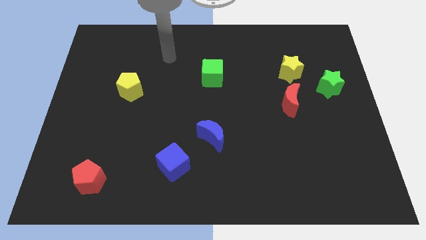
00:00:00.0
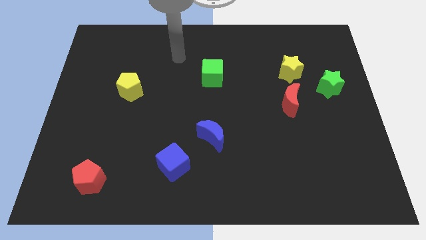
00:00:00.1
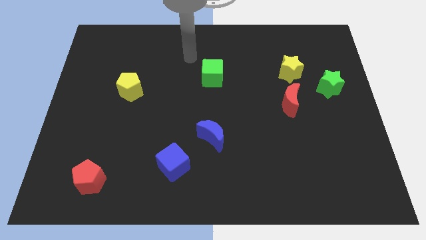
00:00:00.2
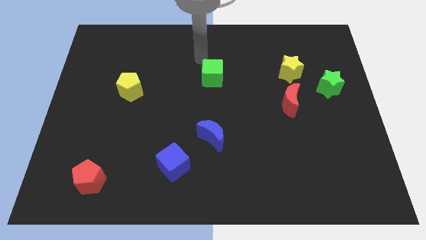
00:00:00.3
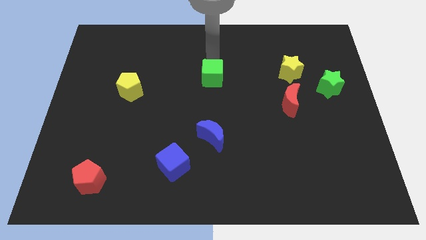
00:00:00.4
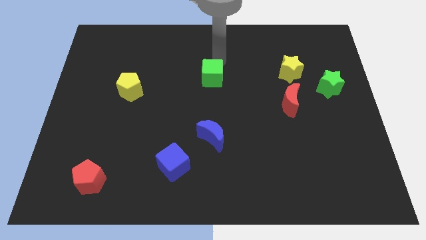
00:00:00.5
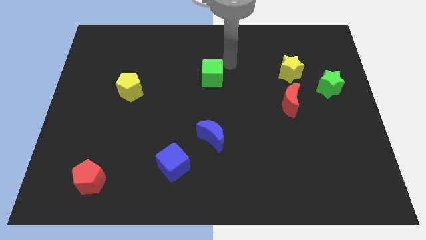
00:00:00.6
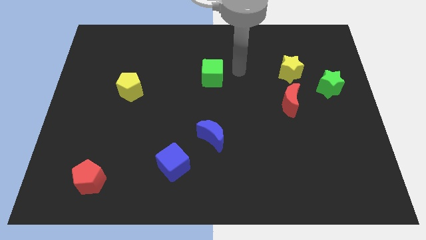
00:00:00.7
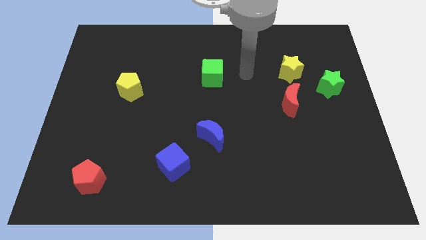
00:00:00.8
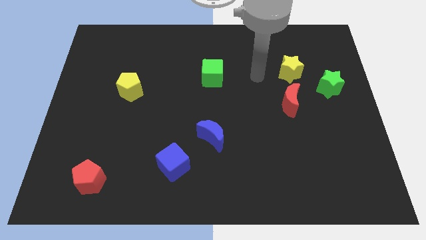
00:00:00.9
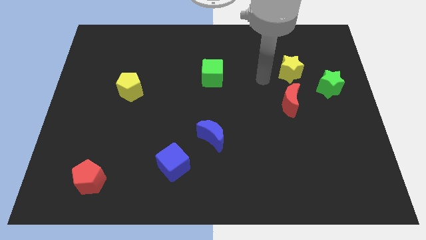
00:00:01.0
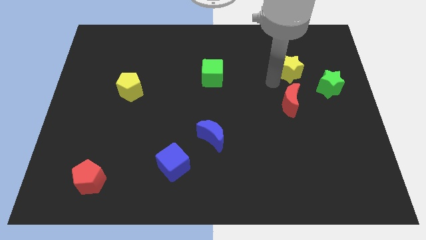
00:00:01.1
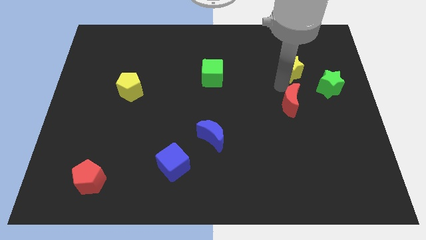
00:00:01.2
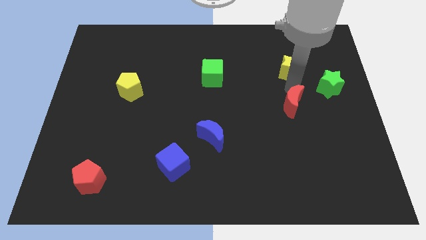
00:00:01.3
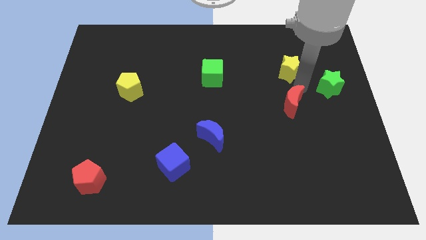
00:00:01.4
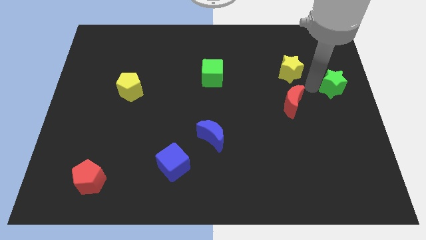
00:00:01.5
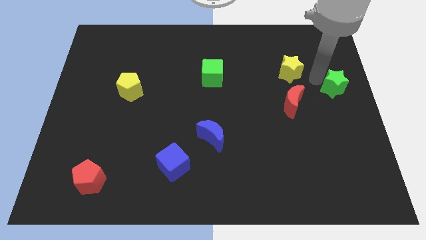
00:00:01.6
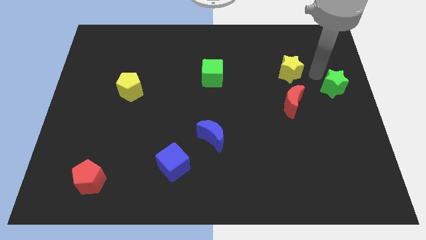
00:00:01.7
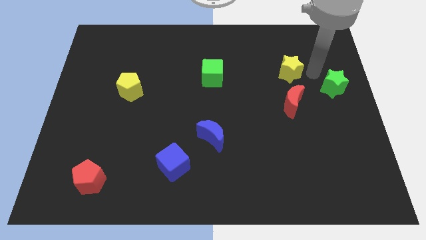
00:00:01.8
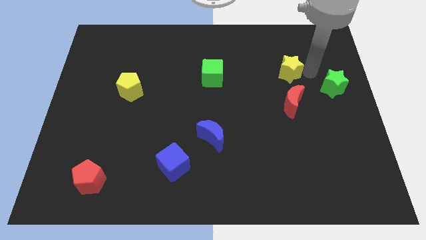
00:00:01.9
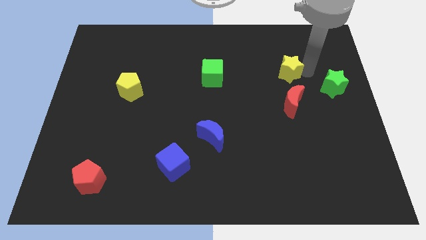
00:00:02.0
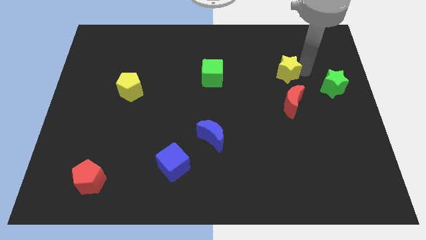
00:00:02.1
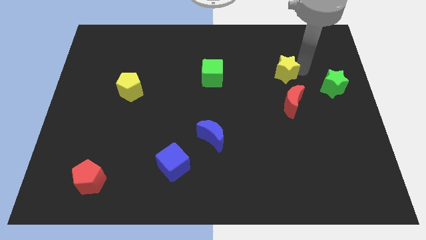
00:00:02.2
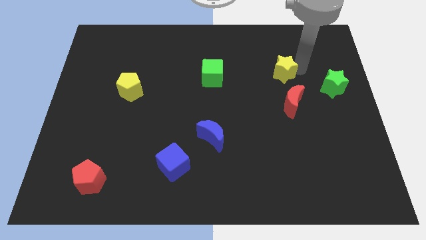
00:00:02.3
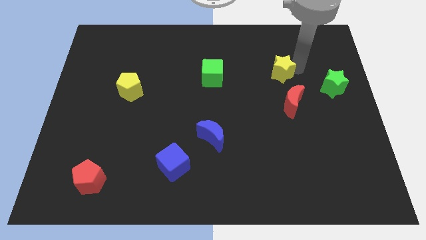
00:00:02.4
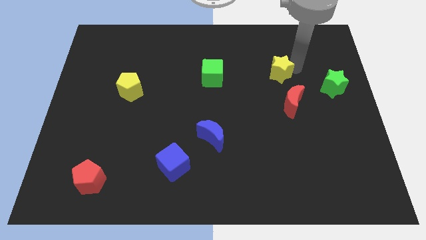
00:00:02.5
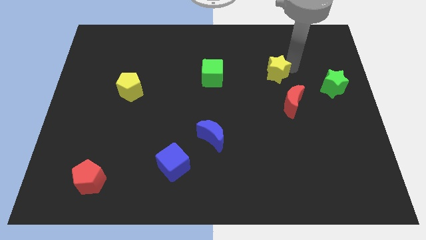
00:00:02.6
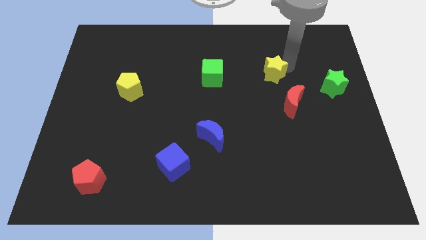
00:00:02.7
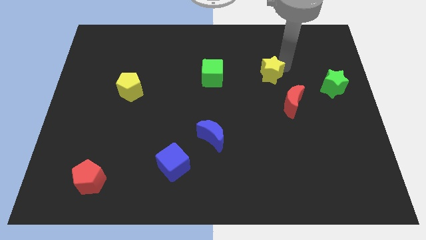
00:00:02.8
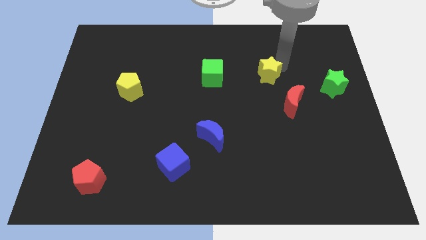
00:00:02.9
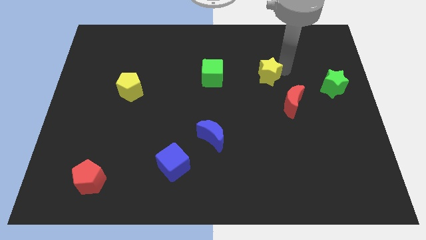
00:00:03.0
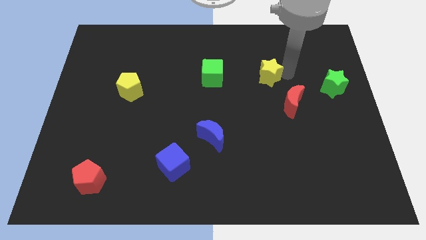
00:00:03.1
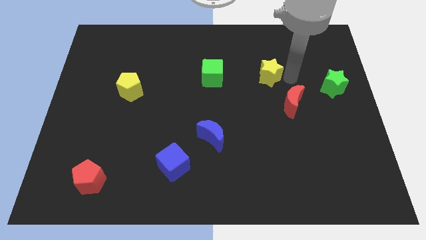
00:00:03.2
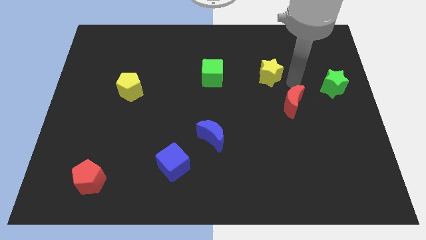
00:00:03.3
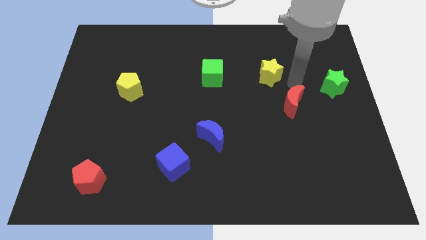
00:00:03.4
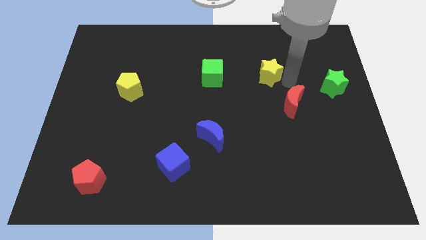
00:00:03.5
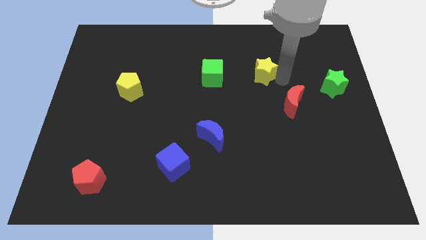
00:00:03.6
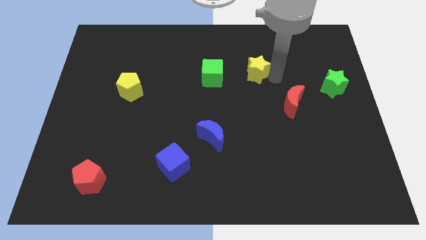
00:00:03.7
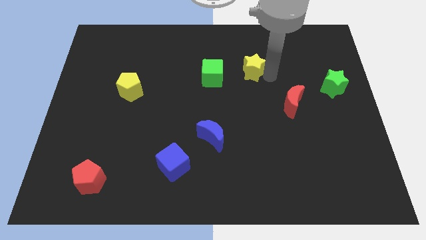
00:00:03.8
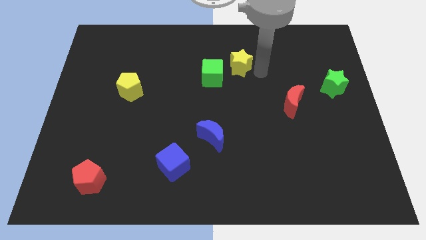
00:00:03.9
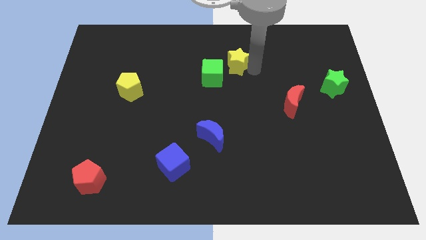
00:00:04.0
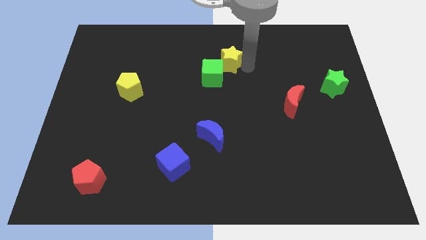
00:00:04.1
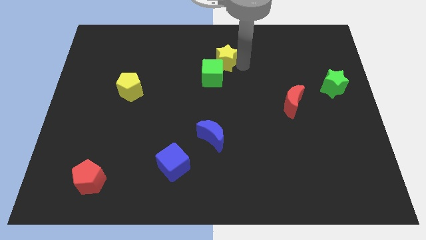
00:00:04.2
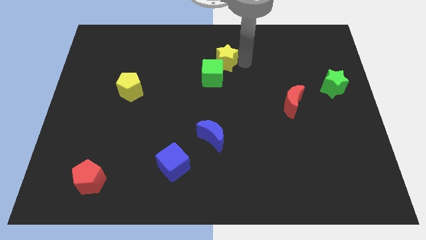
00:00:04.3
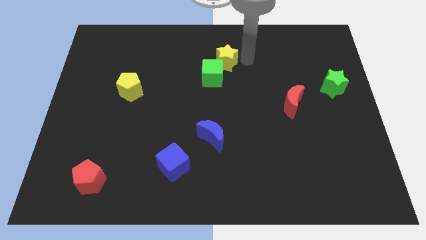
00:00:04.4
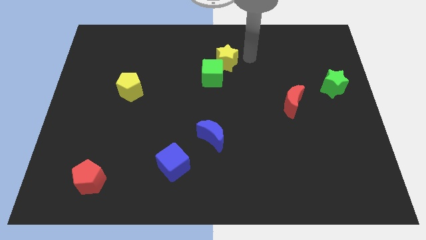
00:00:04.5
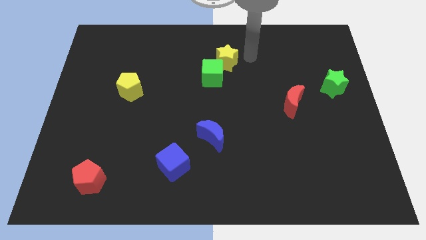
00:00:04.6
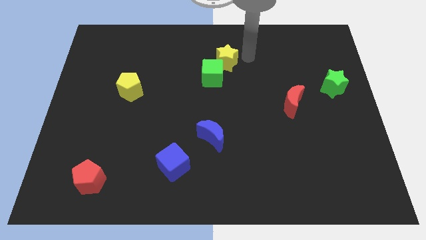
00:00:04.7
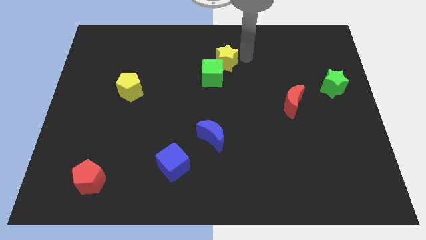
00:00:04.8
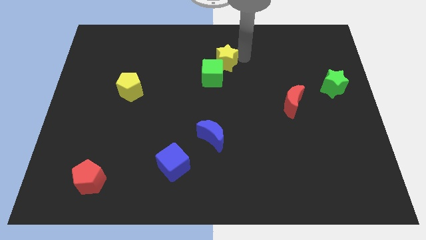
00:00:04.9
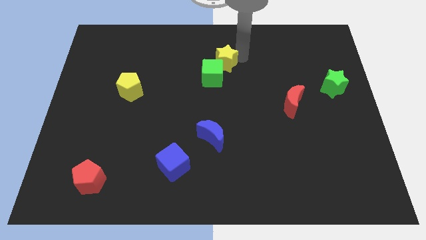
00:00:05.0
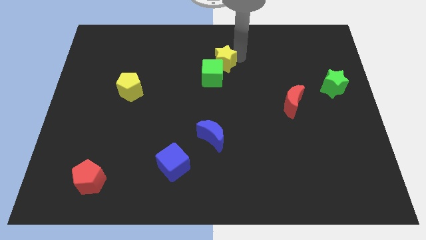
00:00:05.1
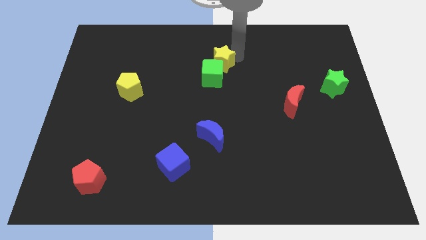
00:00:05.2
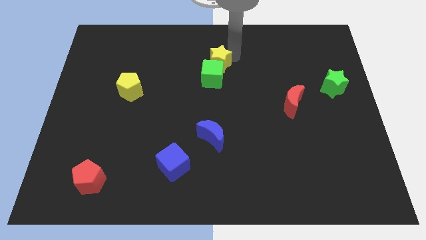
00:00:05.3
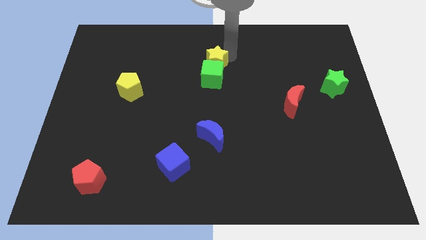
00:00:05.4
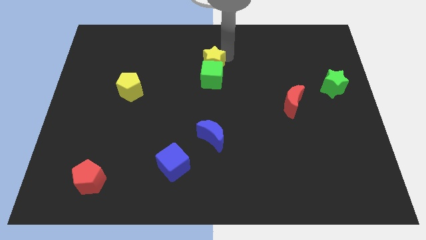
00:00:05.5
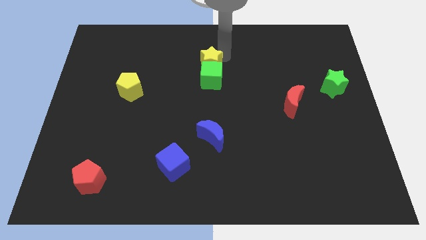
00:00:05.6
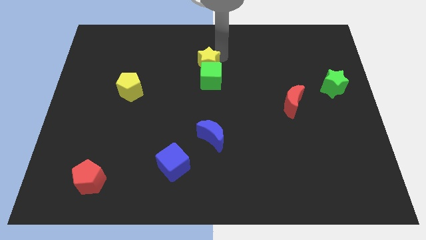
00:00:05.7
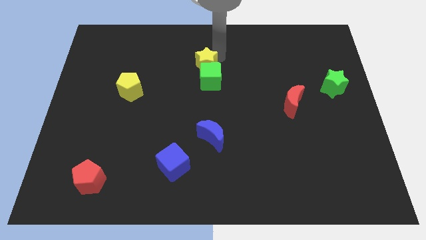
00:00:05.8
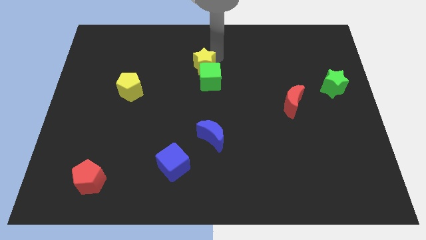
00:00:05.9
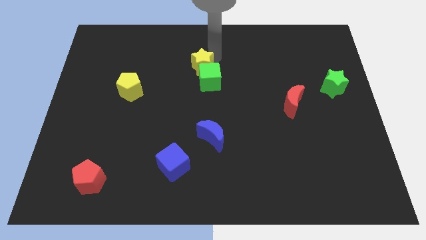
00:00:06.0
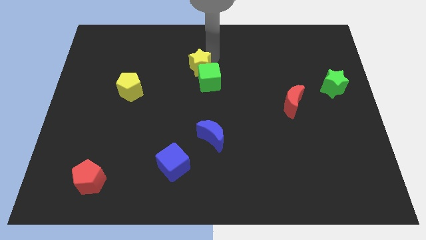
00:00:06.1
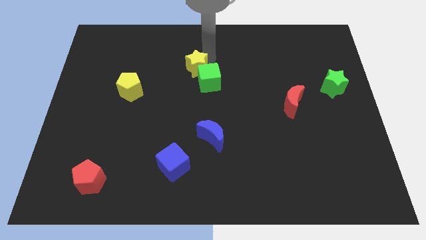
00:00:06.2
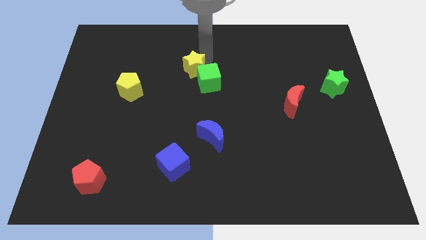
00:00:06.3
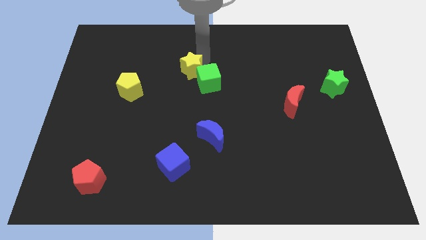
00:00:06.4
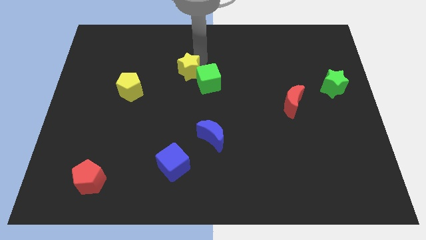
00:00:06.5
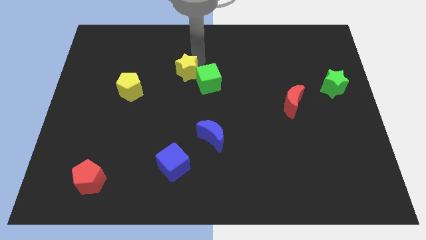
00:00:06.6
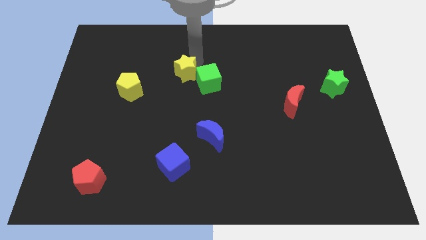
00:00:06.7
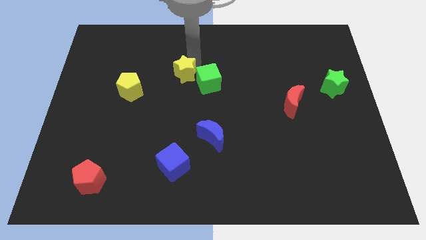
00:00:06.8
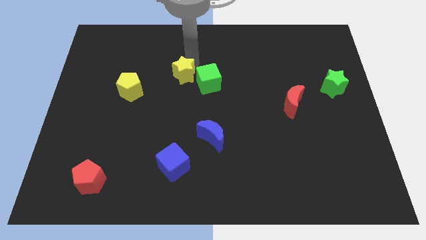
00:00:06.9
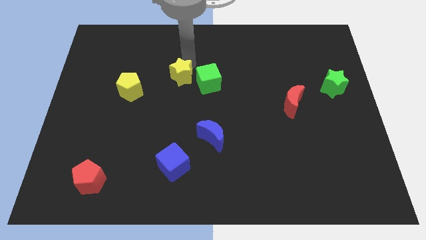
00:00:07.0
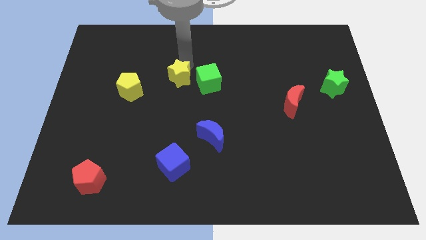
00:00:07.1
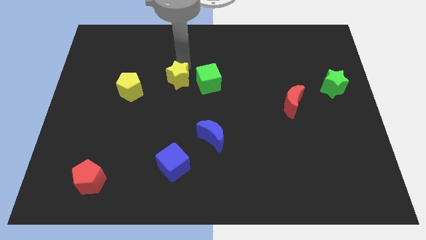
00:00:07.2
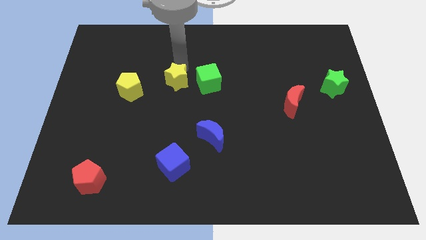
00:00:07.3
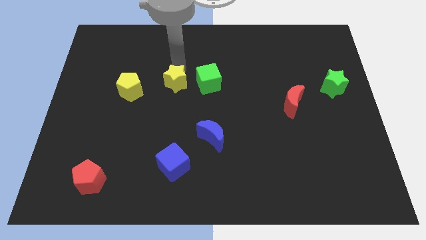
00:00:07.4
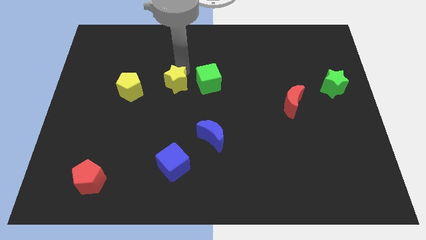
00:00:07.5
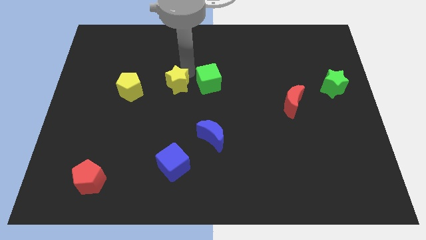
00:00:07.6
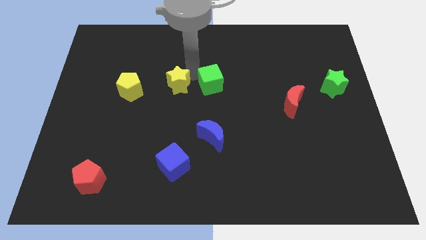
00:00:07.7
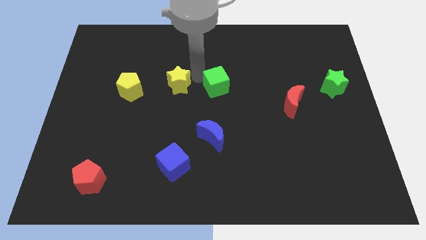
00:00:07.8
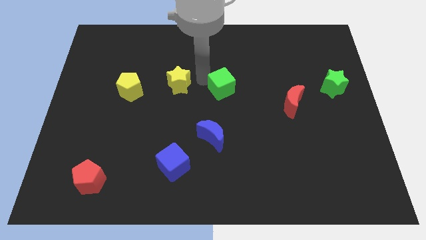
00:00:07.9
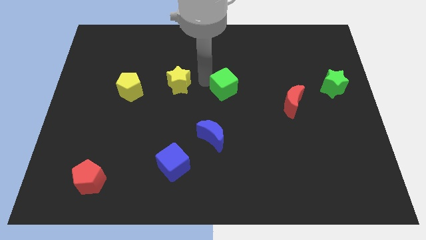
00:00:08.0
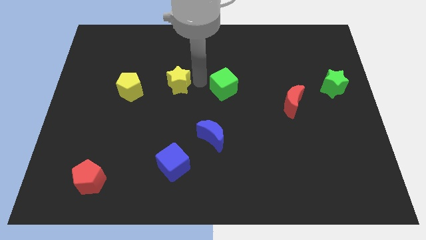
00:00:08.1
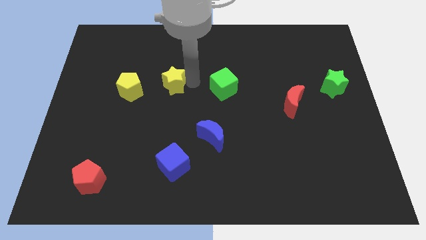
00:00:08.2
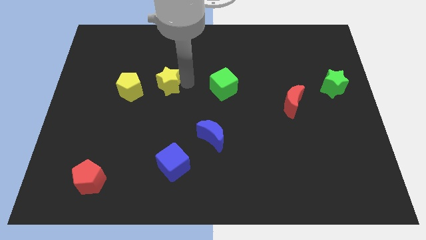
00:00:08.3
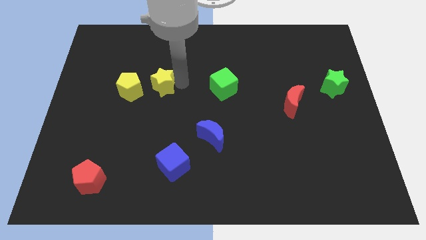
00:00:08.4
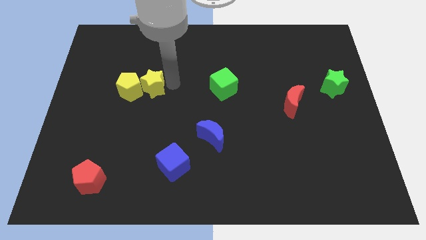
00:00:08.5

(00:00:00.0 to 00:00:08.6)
put the yellow star to the yellow pentagon
